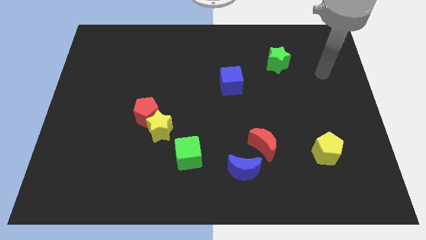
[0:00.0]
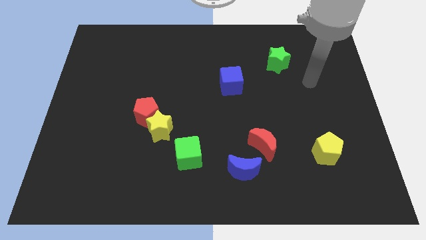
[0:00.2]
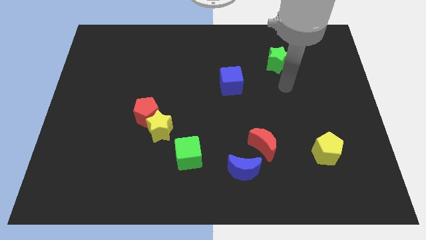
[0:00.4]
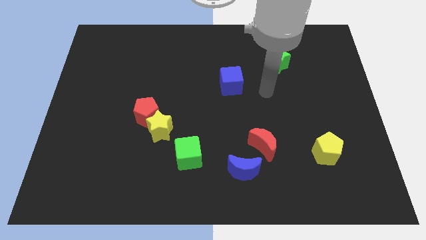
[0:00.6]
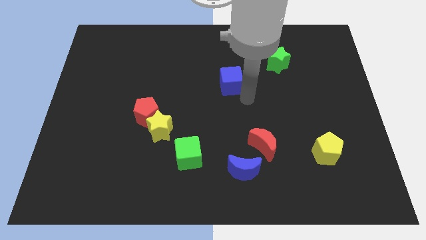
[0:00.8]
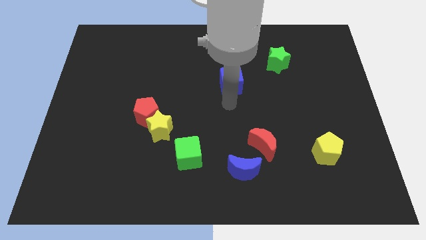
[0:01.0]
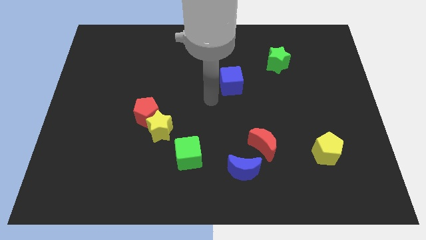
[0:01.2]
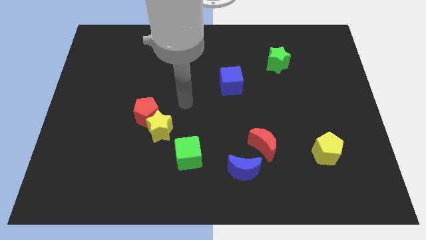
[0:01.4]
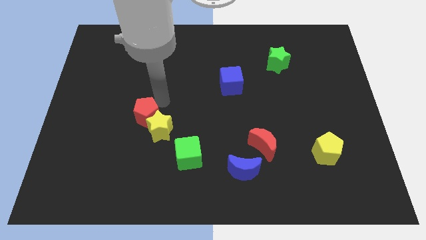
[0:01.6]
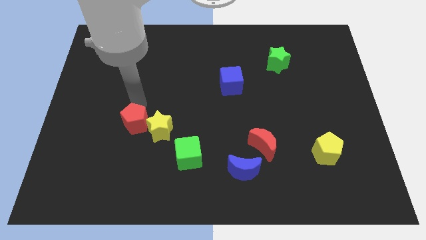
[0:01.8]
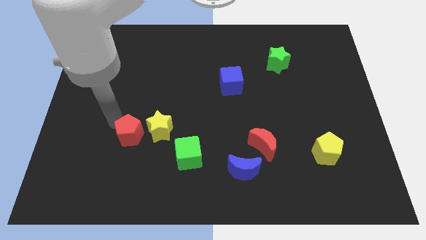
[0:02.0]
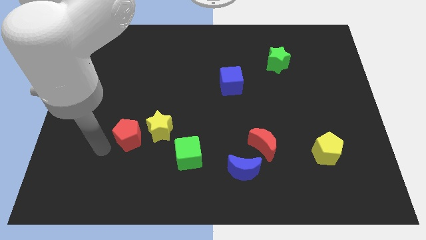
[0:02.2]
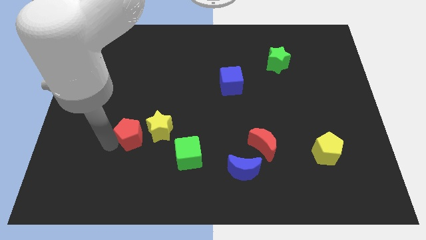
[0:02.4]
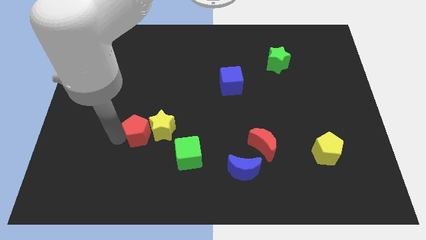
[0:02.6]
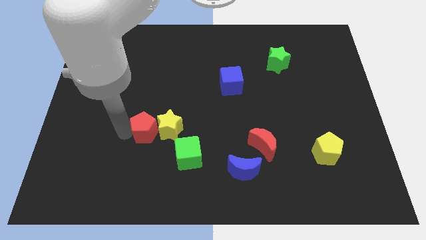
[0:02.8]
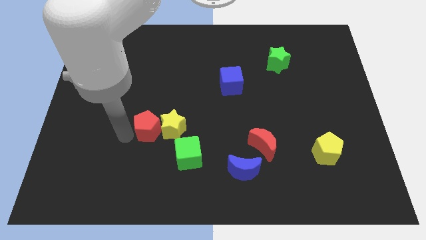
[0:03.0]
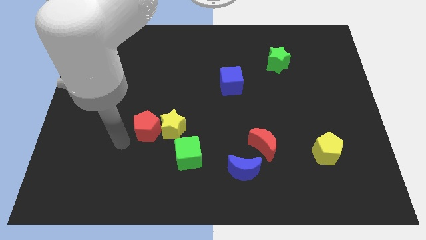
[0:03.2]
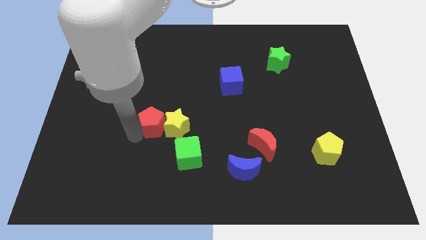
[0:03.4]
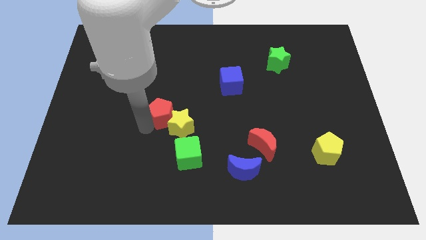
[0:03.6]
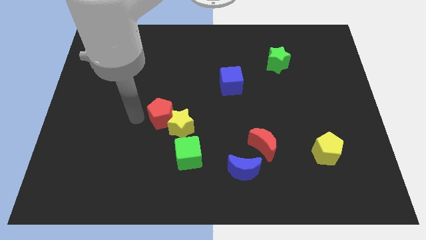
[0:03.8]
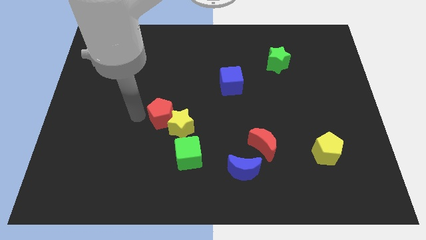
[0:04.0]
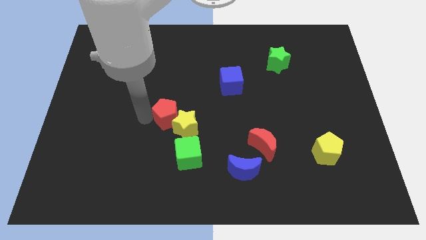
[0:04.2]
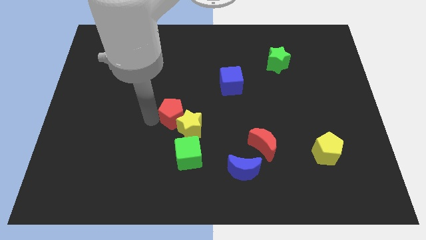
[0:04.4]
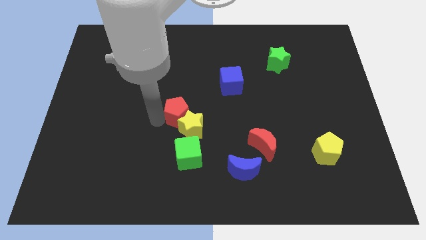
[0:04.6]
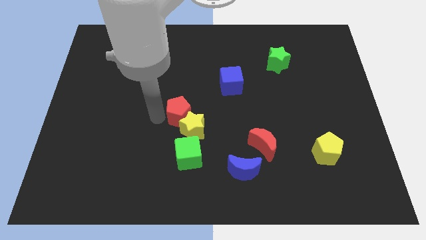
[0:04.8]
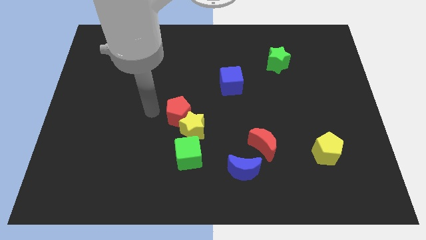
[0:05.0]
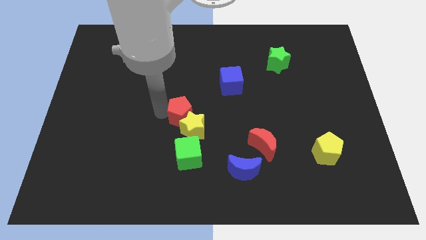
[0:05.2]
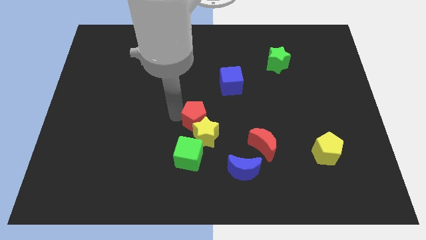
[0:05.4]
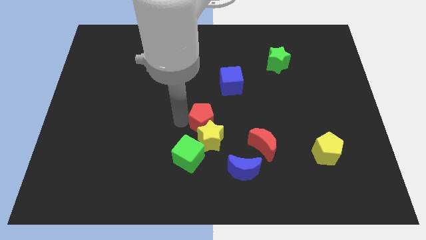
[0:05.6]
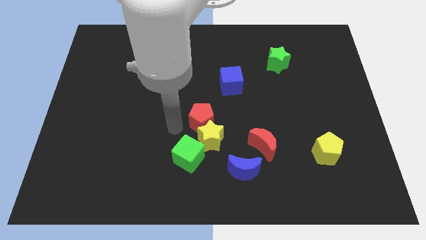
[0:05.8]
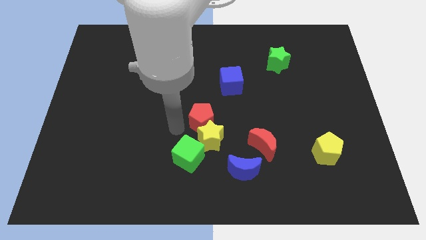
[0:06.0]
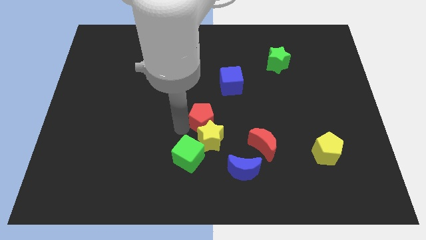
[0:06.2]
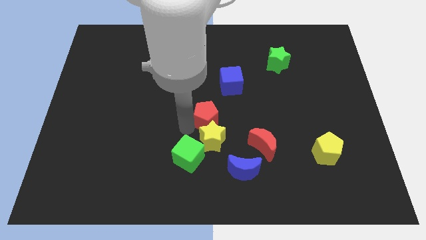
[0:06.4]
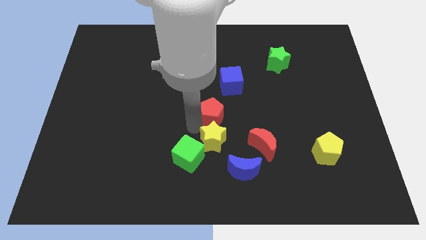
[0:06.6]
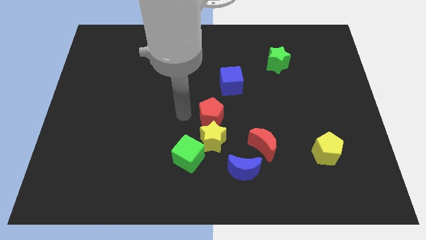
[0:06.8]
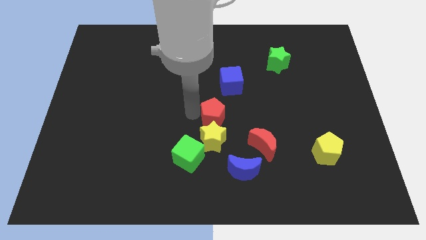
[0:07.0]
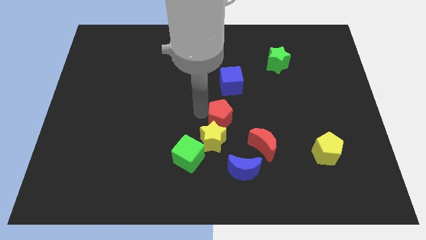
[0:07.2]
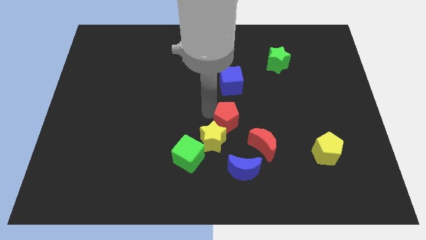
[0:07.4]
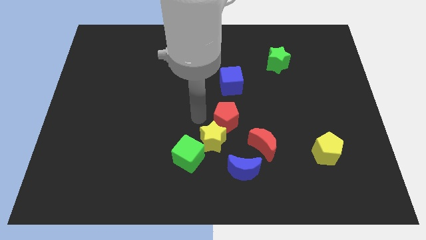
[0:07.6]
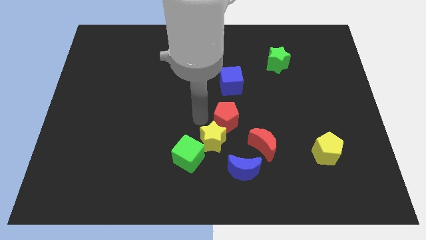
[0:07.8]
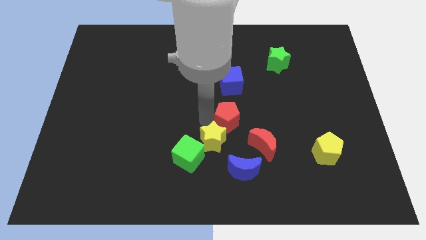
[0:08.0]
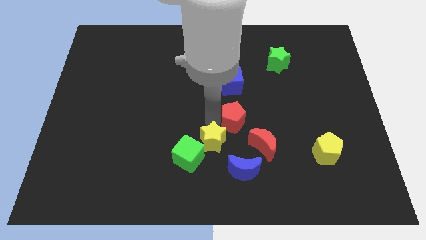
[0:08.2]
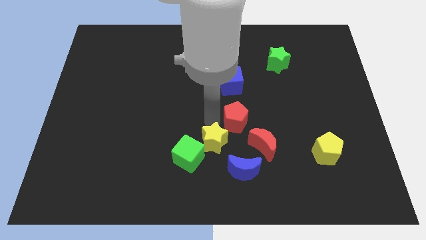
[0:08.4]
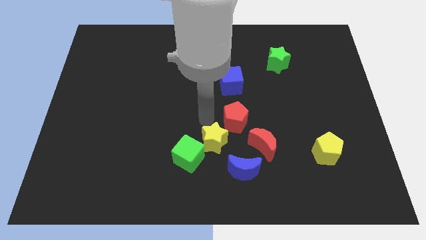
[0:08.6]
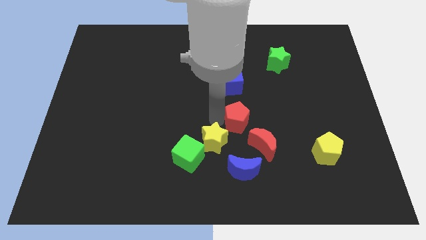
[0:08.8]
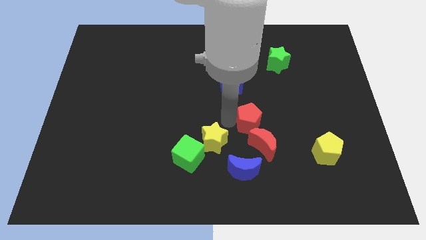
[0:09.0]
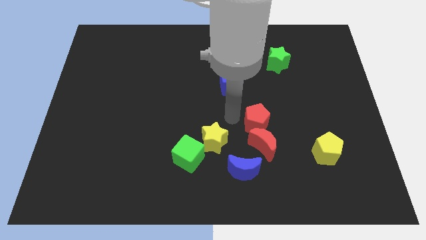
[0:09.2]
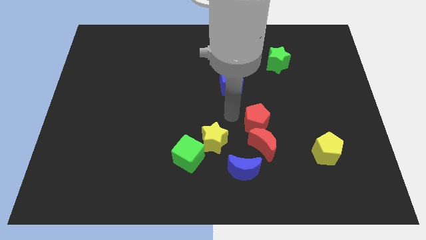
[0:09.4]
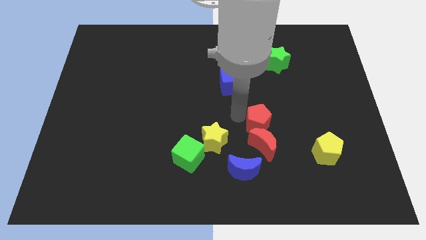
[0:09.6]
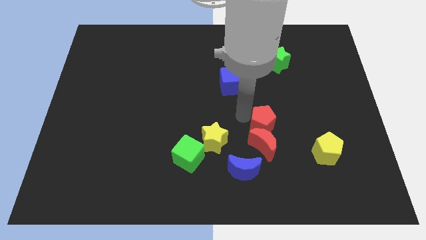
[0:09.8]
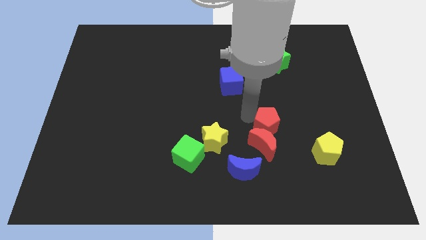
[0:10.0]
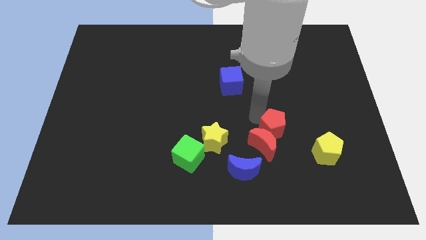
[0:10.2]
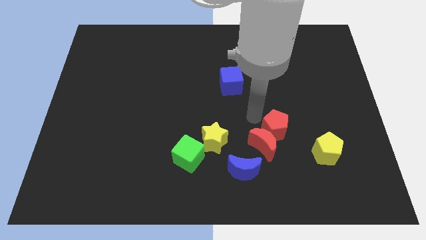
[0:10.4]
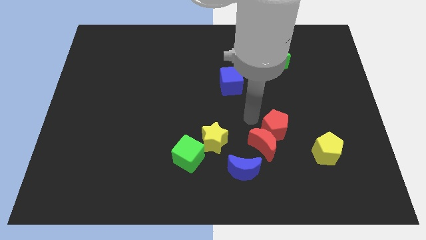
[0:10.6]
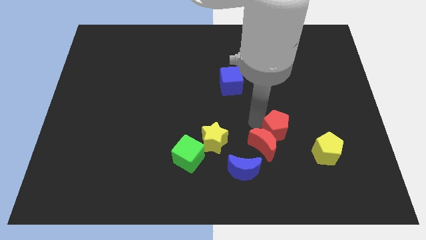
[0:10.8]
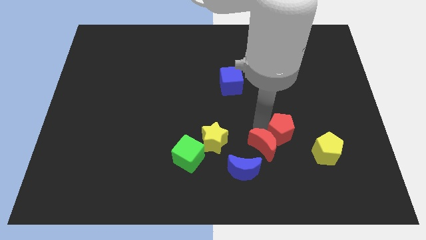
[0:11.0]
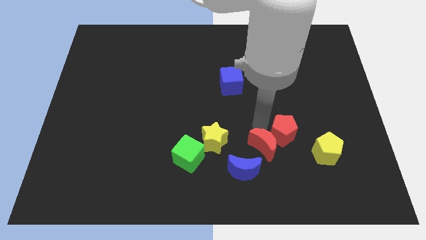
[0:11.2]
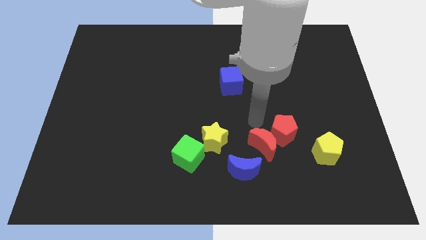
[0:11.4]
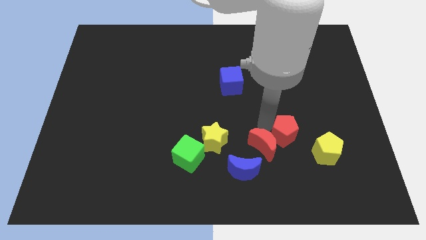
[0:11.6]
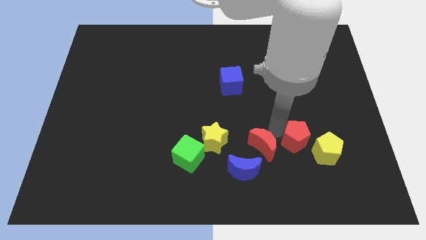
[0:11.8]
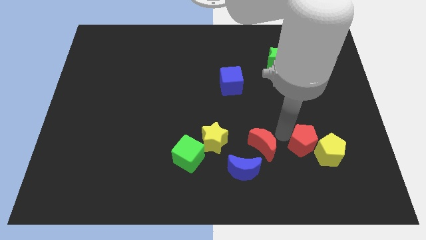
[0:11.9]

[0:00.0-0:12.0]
slide the red pentagon next to the yellow pentagon
